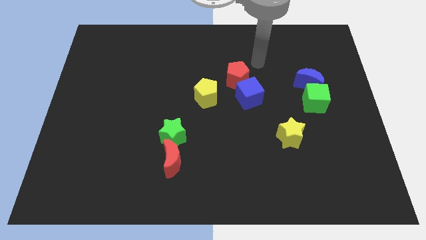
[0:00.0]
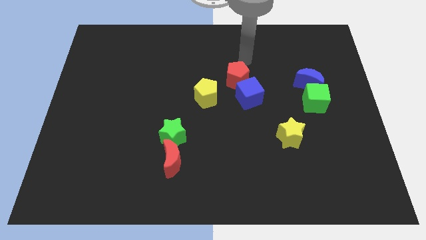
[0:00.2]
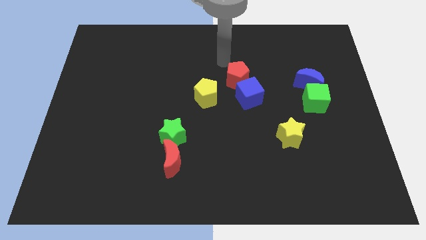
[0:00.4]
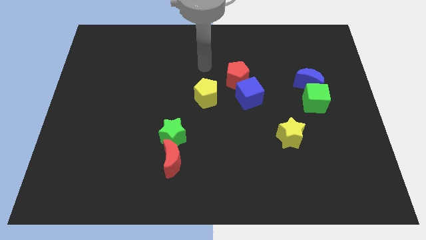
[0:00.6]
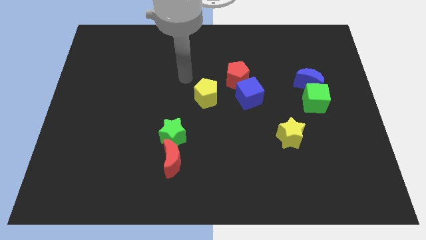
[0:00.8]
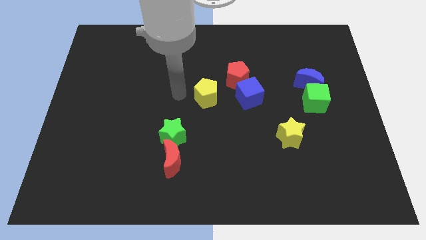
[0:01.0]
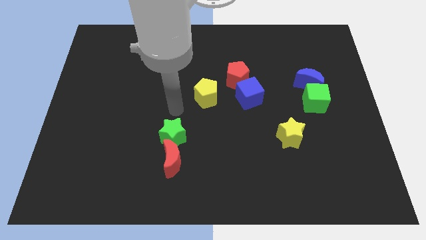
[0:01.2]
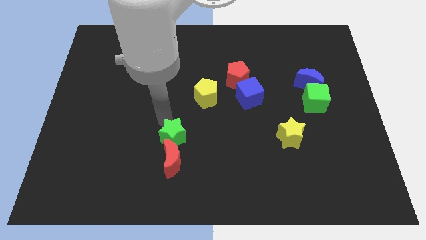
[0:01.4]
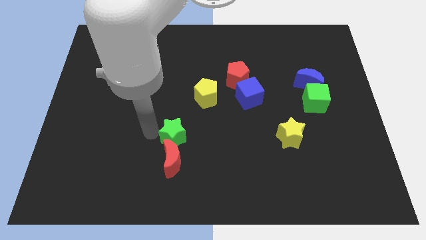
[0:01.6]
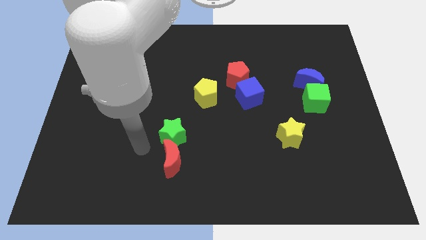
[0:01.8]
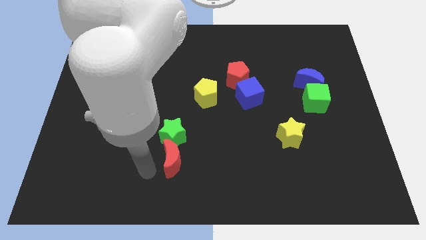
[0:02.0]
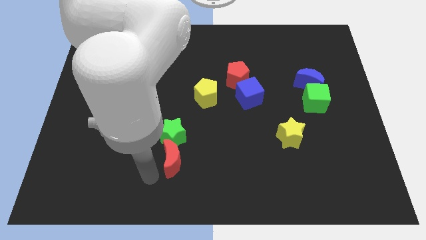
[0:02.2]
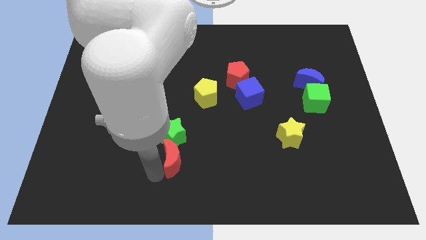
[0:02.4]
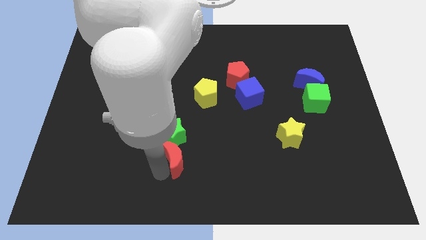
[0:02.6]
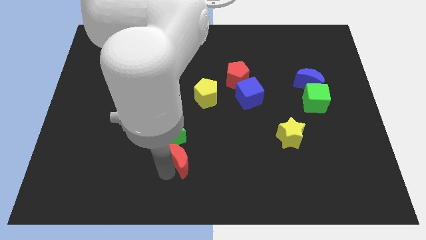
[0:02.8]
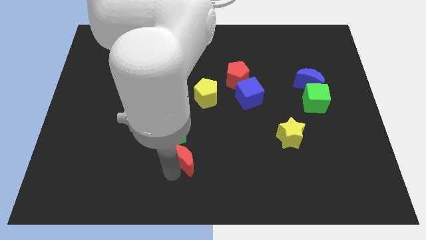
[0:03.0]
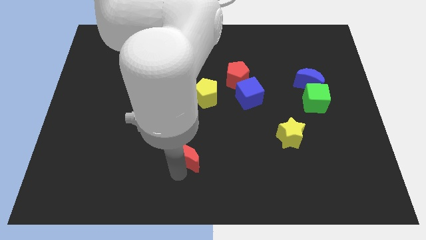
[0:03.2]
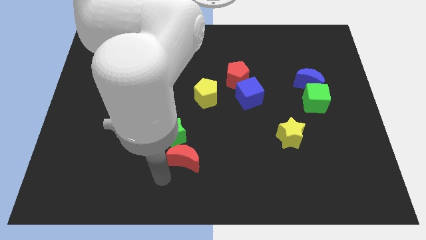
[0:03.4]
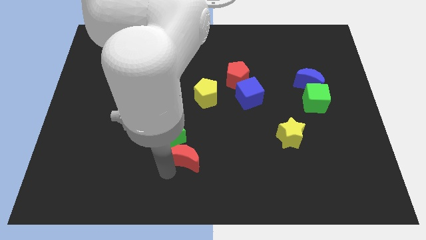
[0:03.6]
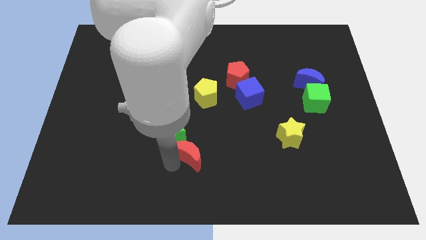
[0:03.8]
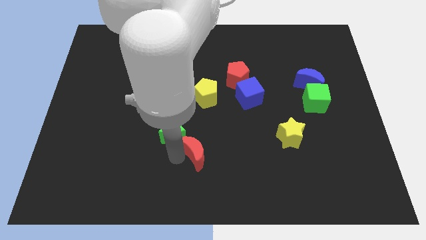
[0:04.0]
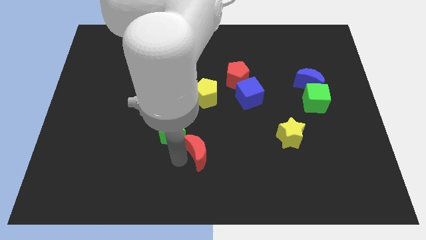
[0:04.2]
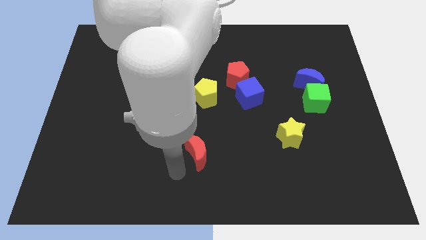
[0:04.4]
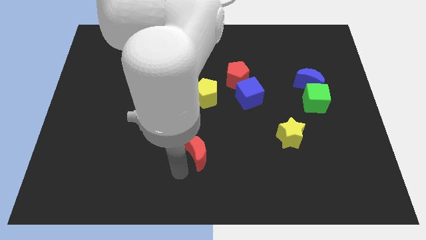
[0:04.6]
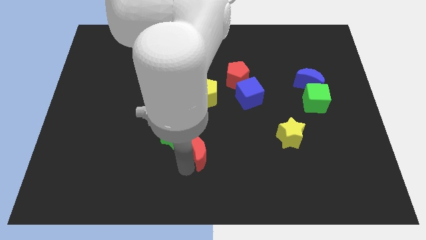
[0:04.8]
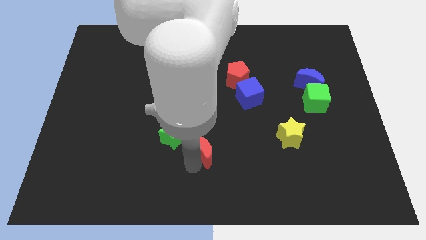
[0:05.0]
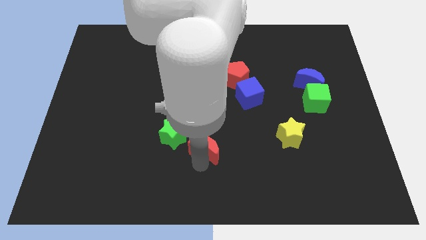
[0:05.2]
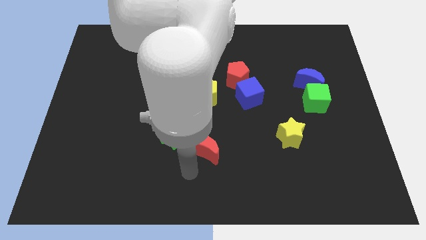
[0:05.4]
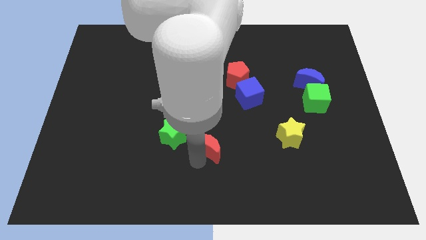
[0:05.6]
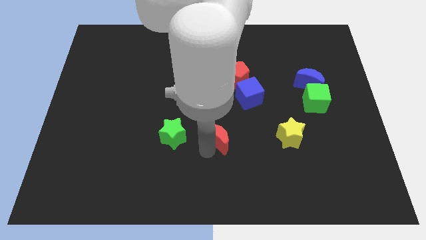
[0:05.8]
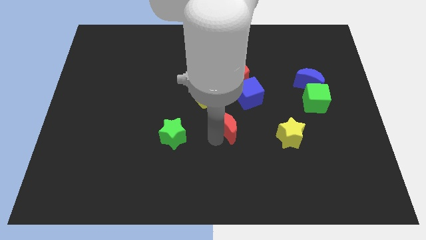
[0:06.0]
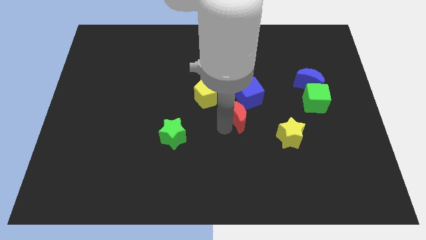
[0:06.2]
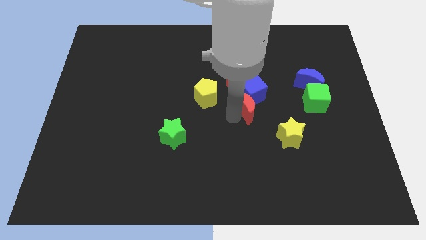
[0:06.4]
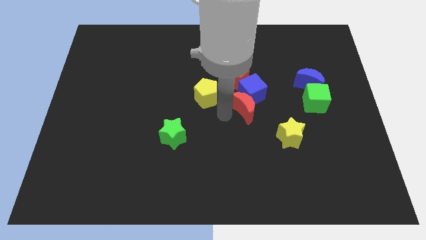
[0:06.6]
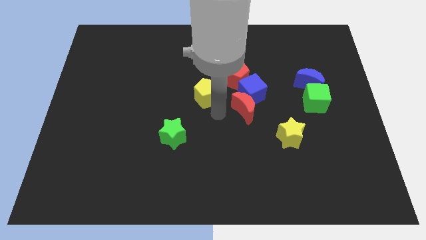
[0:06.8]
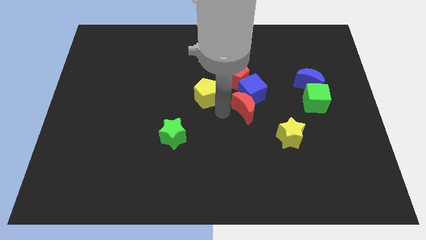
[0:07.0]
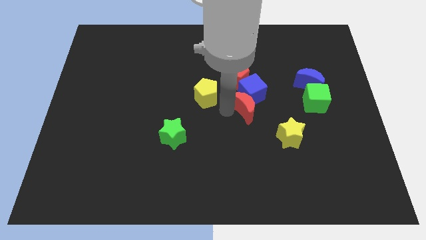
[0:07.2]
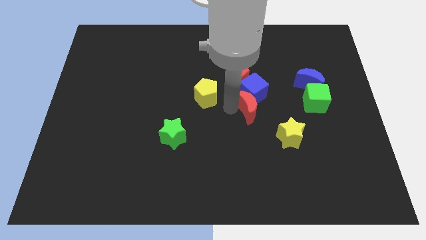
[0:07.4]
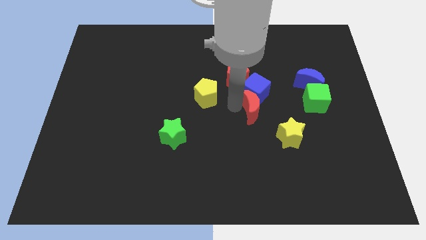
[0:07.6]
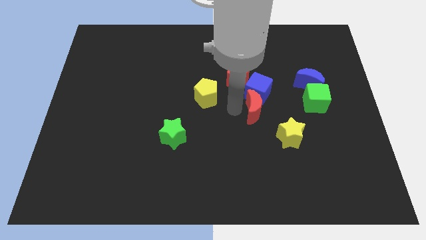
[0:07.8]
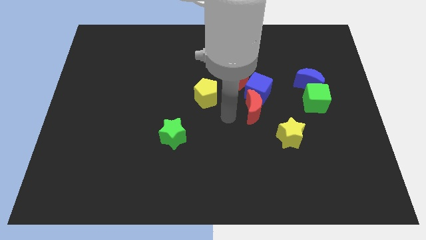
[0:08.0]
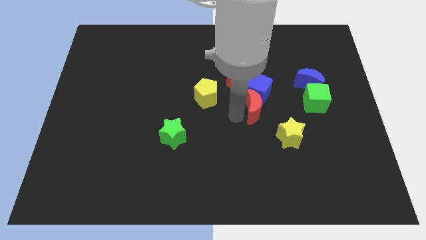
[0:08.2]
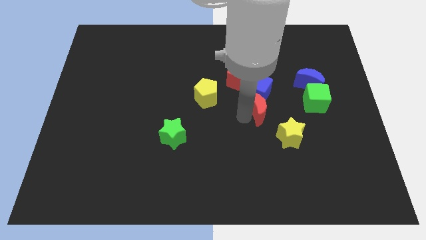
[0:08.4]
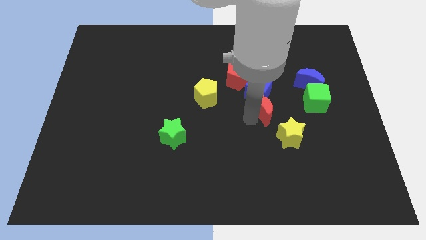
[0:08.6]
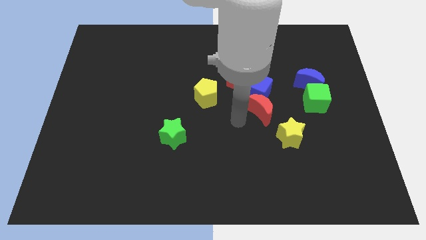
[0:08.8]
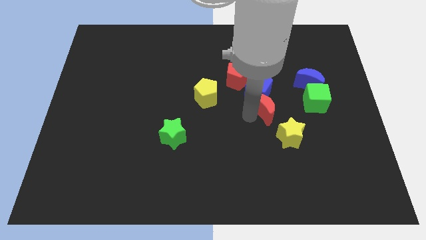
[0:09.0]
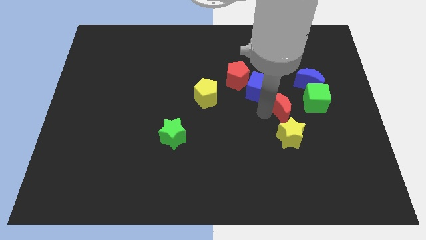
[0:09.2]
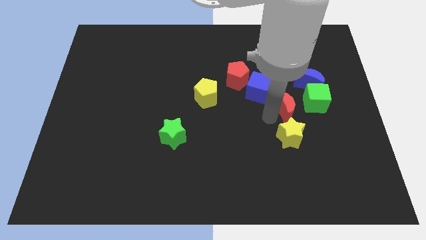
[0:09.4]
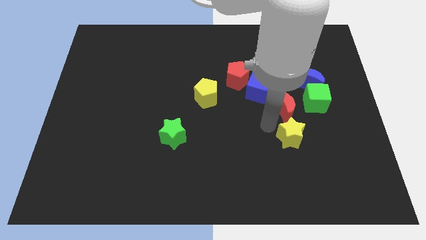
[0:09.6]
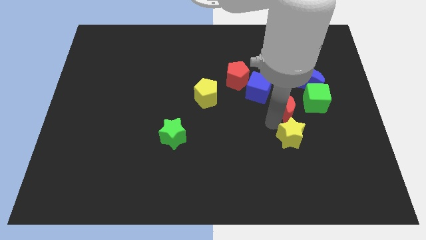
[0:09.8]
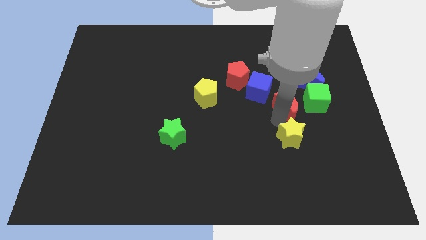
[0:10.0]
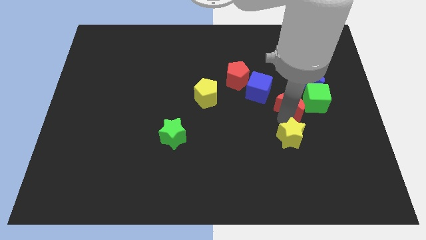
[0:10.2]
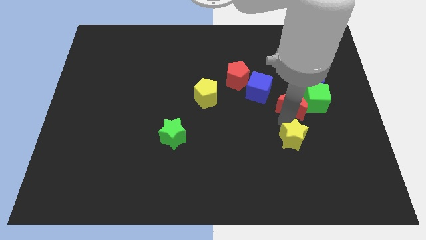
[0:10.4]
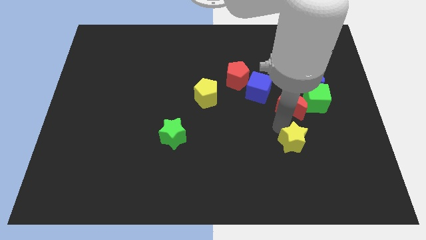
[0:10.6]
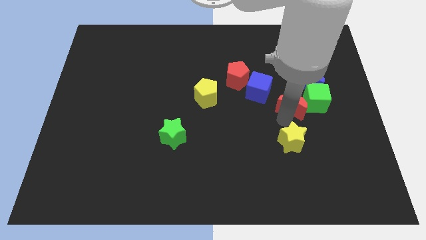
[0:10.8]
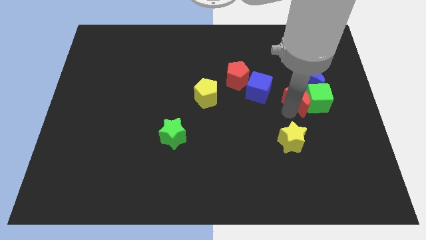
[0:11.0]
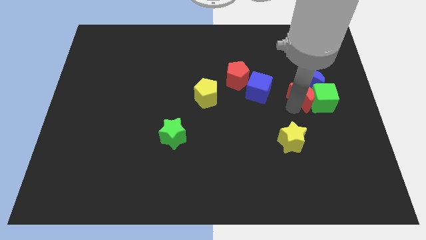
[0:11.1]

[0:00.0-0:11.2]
put the red moon towards the blue moon

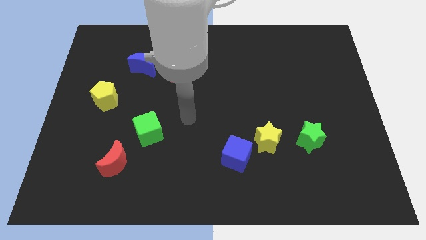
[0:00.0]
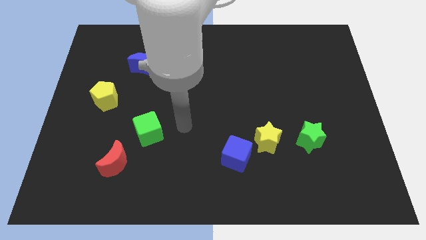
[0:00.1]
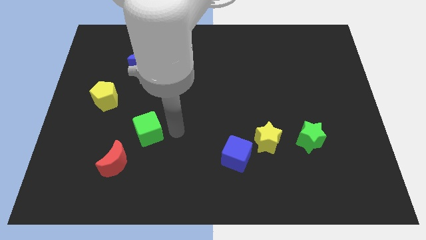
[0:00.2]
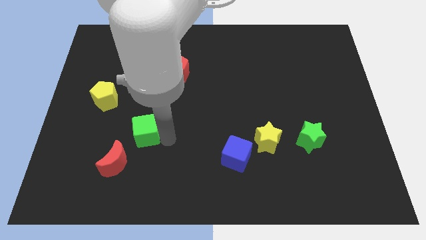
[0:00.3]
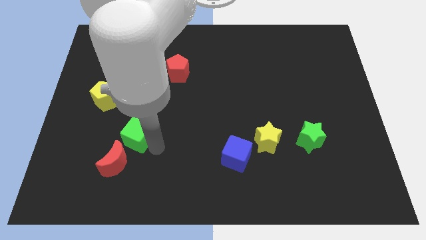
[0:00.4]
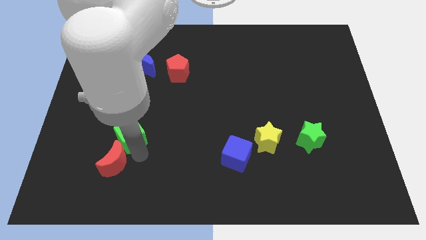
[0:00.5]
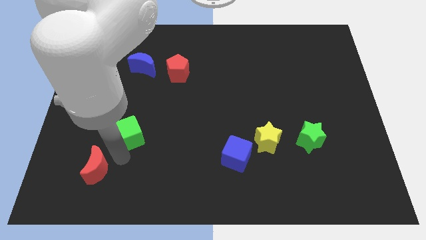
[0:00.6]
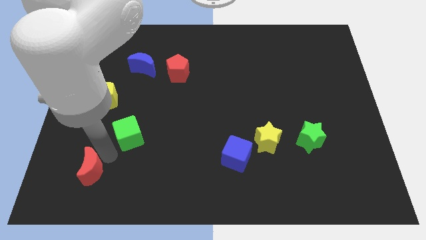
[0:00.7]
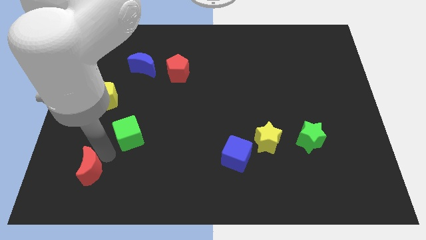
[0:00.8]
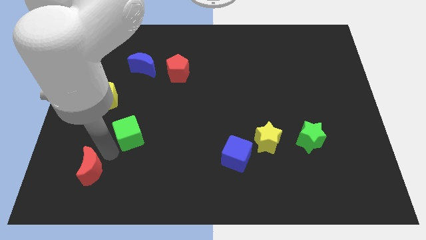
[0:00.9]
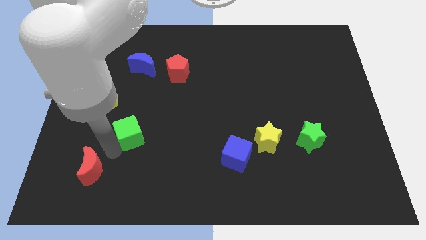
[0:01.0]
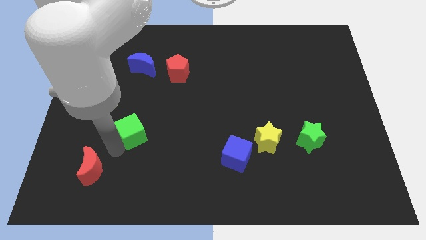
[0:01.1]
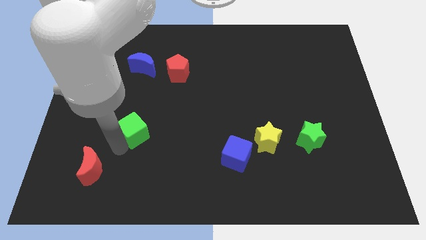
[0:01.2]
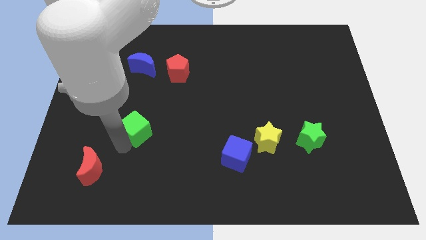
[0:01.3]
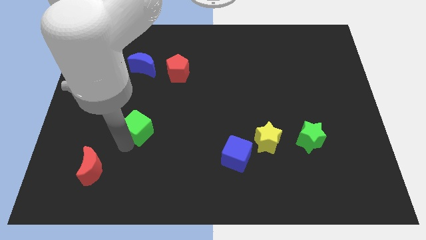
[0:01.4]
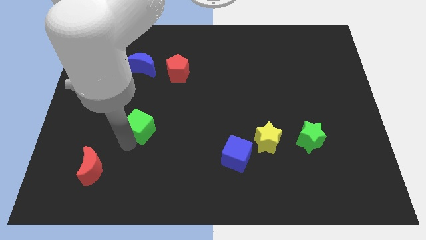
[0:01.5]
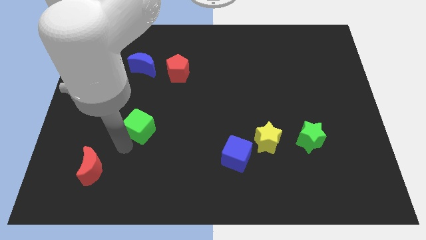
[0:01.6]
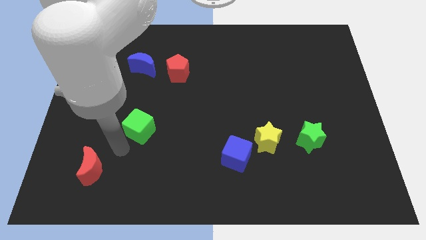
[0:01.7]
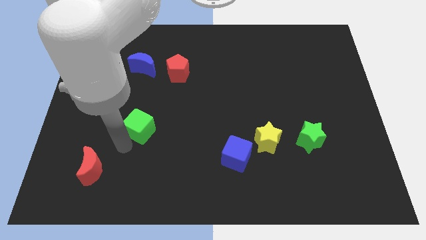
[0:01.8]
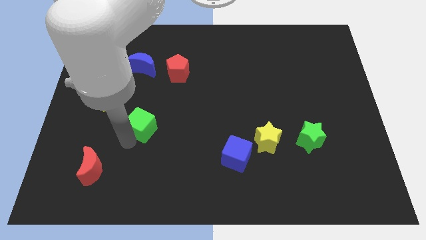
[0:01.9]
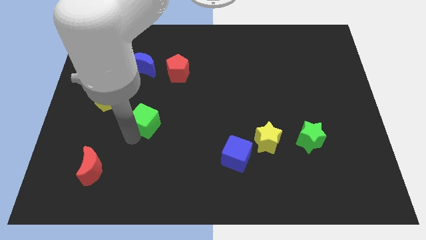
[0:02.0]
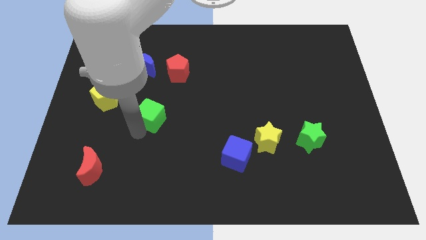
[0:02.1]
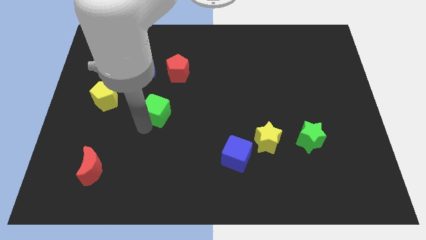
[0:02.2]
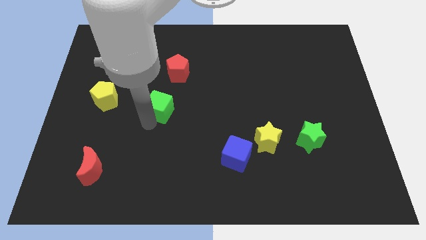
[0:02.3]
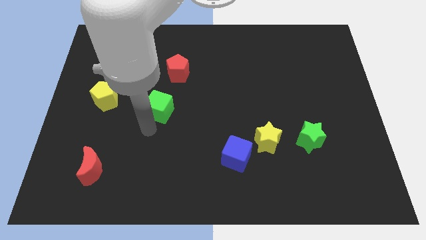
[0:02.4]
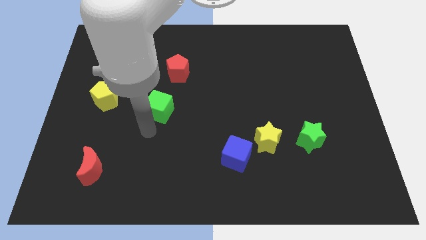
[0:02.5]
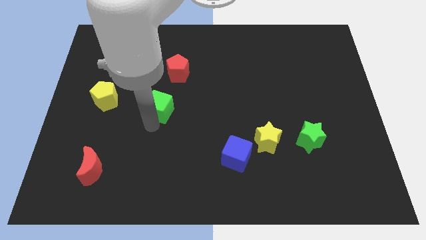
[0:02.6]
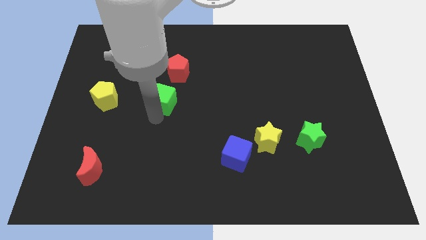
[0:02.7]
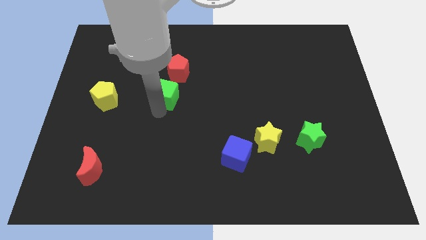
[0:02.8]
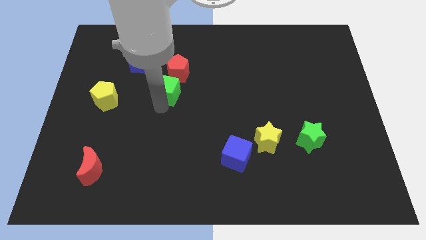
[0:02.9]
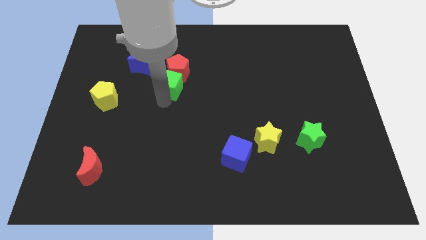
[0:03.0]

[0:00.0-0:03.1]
slide the green cube close to the red pentagon
